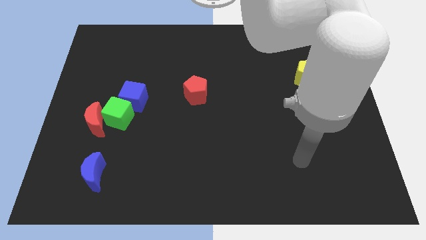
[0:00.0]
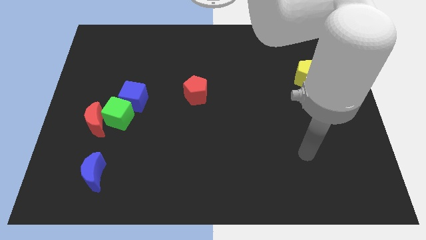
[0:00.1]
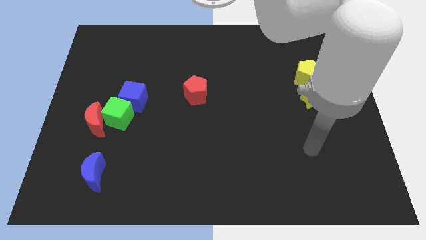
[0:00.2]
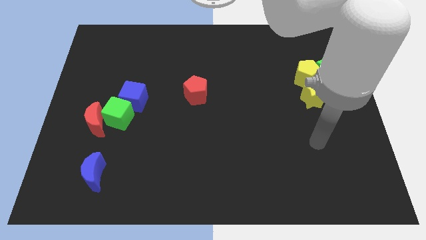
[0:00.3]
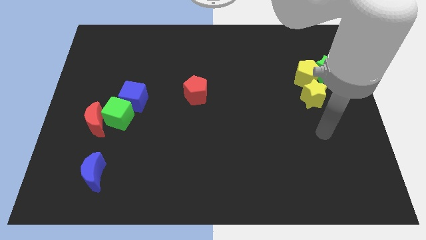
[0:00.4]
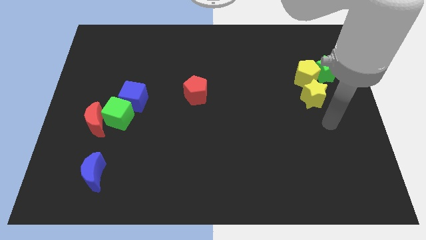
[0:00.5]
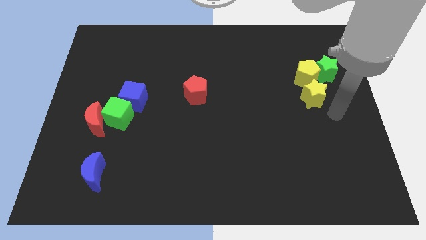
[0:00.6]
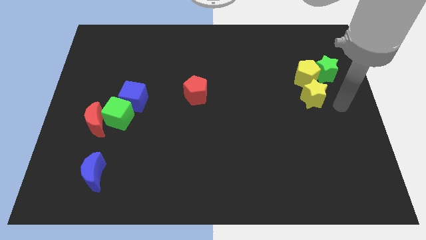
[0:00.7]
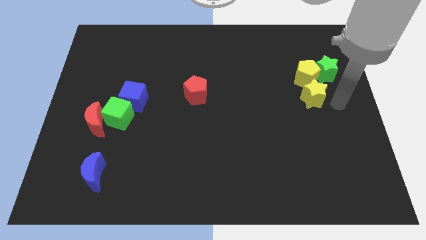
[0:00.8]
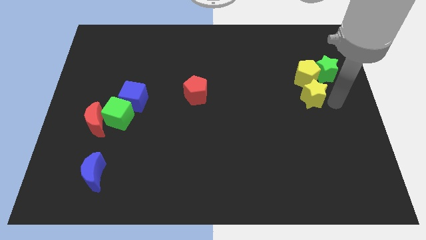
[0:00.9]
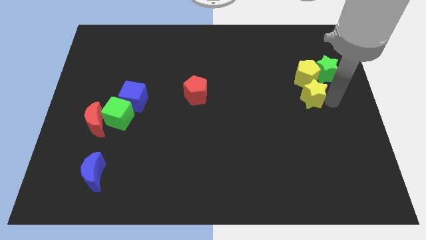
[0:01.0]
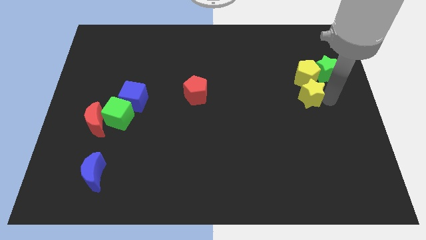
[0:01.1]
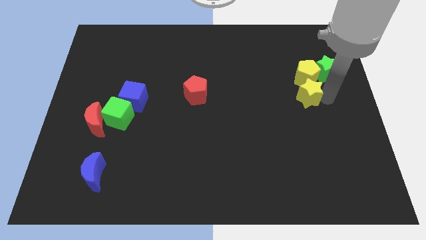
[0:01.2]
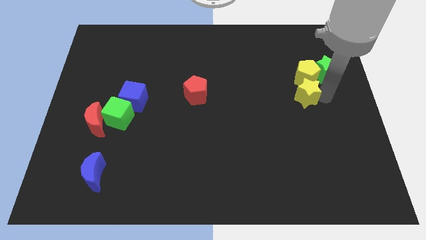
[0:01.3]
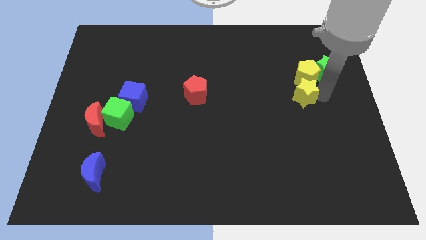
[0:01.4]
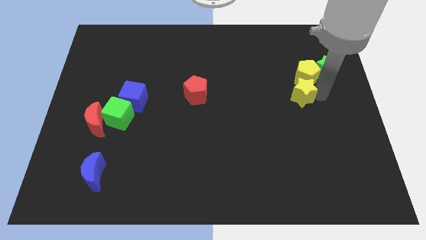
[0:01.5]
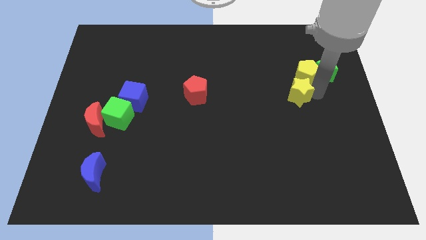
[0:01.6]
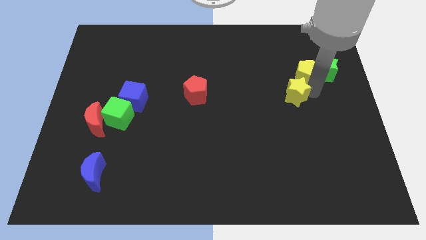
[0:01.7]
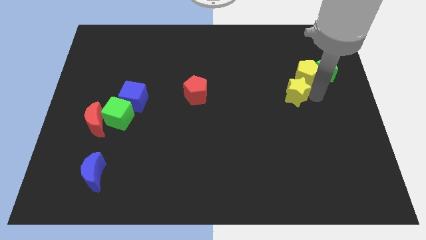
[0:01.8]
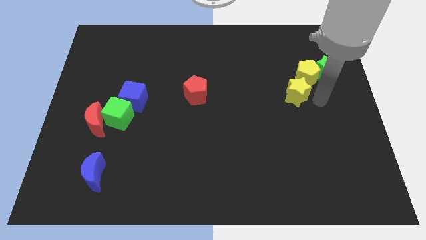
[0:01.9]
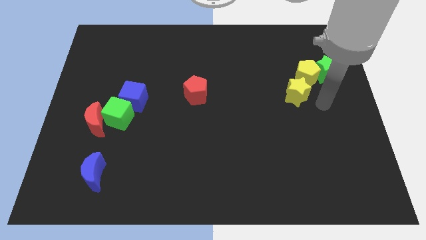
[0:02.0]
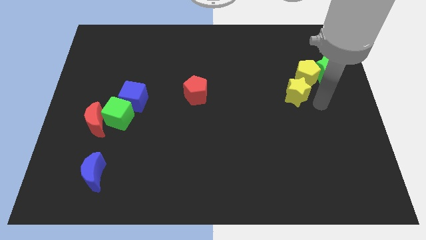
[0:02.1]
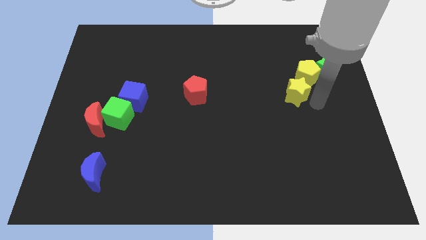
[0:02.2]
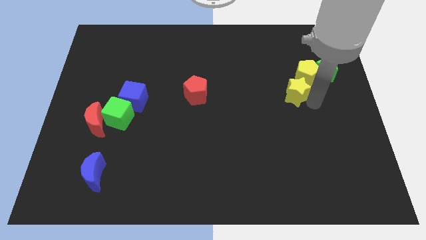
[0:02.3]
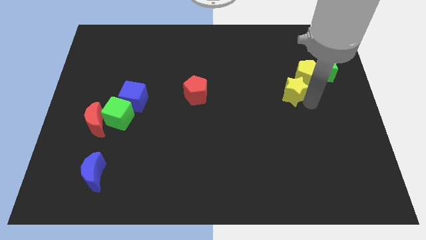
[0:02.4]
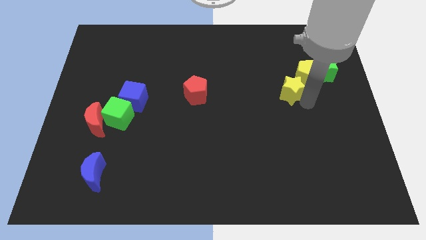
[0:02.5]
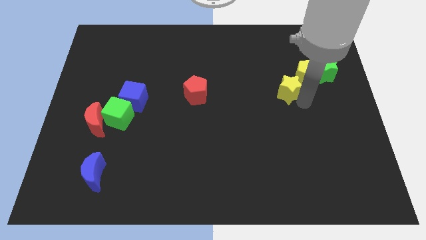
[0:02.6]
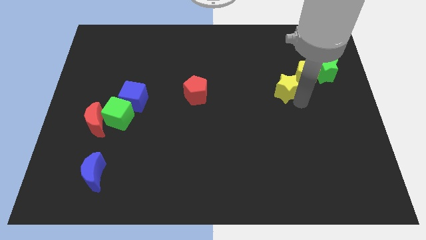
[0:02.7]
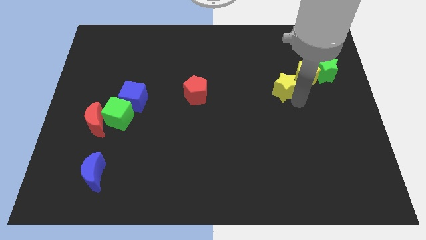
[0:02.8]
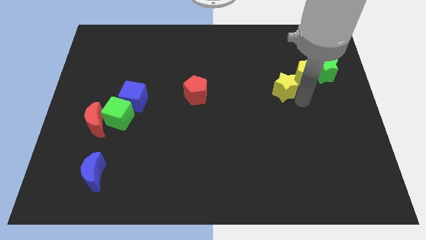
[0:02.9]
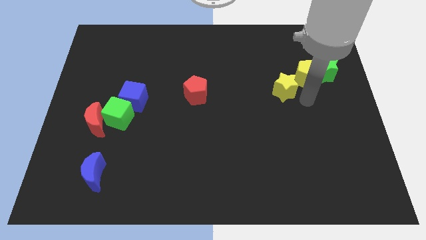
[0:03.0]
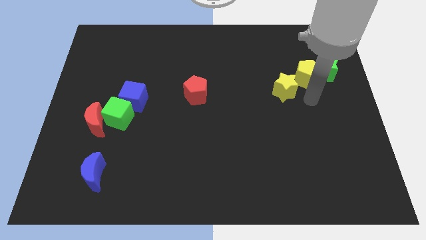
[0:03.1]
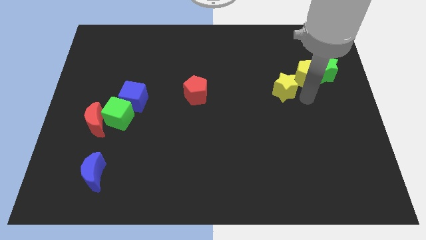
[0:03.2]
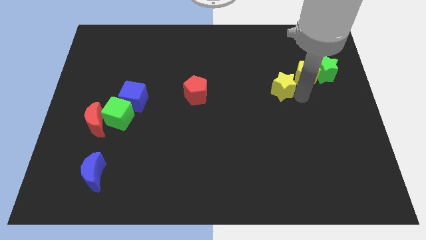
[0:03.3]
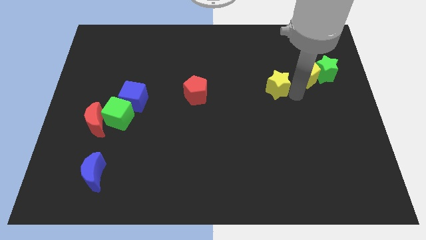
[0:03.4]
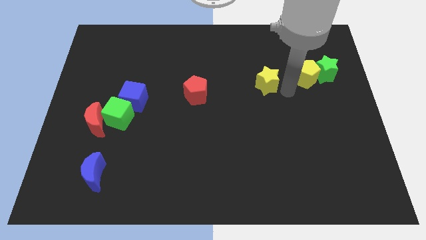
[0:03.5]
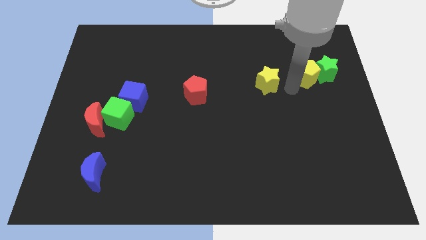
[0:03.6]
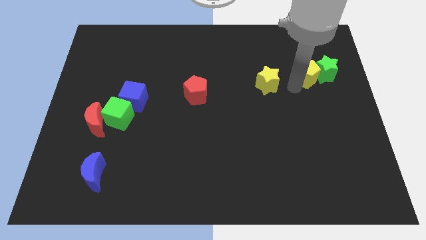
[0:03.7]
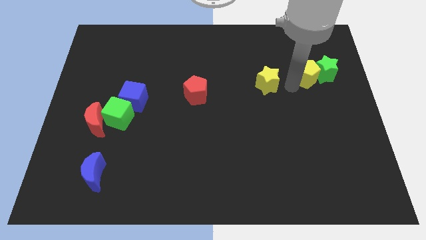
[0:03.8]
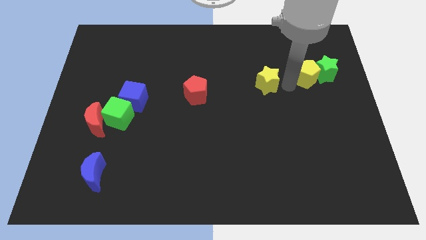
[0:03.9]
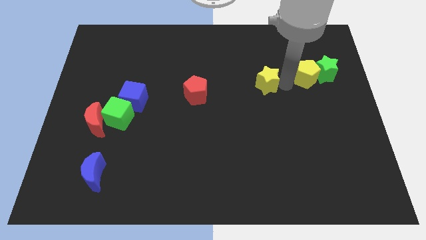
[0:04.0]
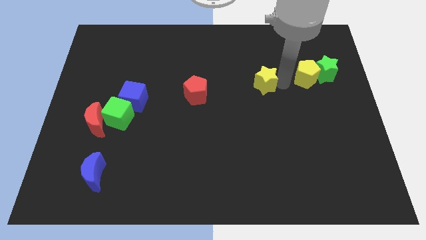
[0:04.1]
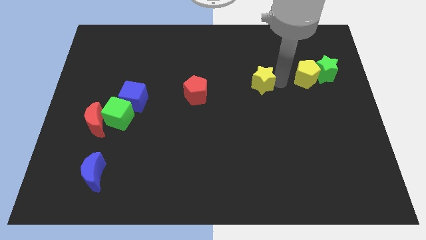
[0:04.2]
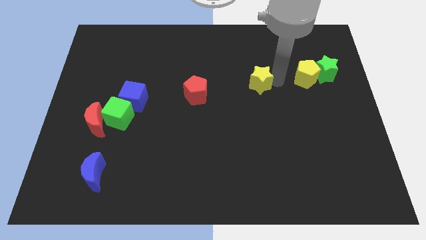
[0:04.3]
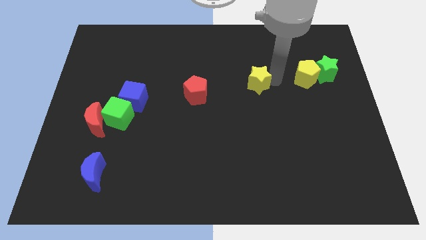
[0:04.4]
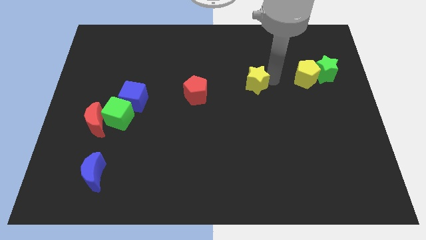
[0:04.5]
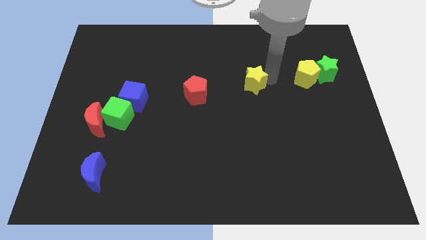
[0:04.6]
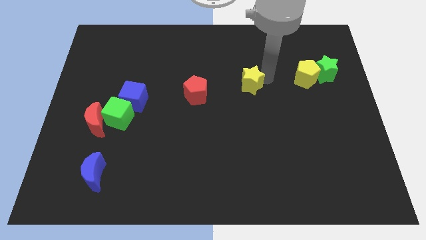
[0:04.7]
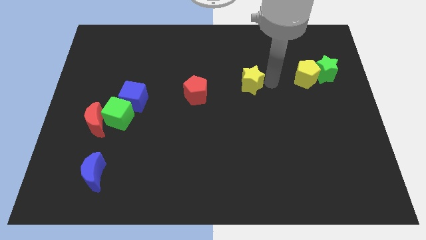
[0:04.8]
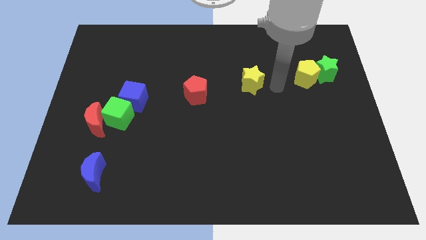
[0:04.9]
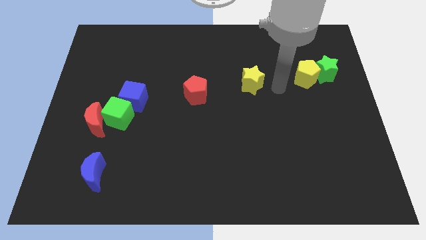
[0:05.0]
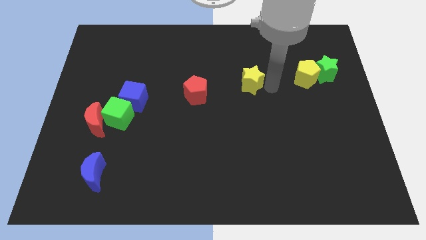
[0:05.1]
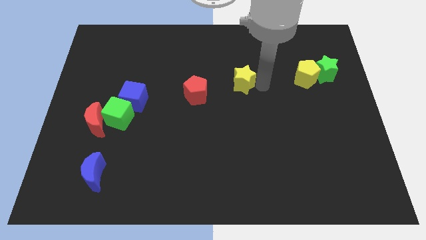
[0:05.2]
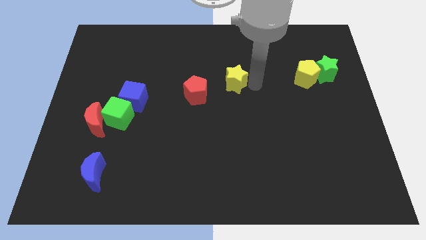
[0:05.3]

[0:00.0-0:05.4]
put the yellow star diagonally up and to the right of the red pentagon

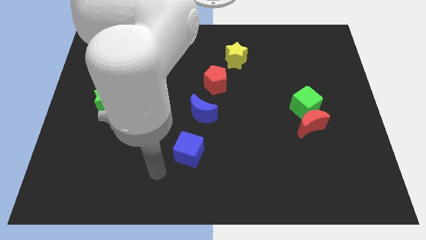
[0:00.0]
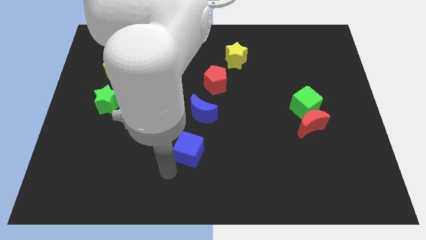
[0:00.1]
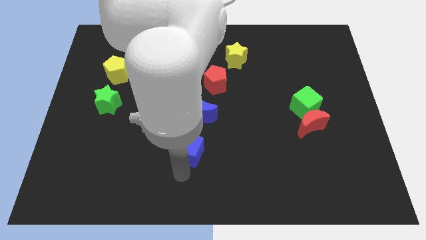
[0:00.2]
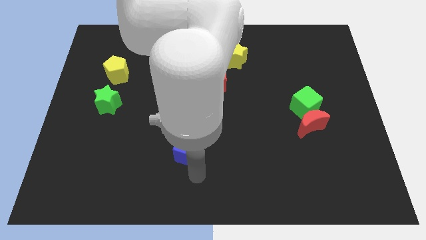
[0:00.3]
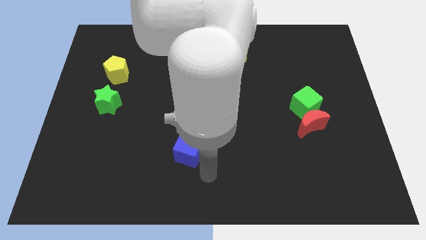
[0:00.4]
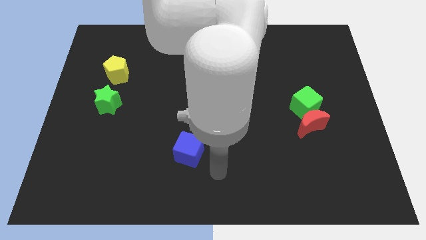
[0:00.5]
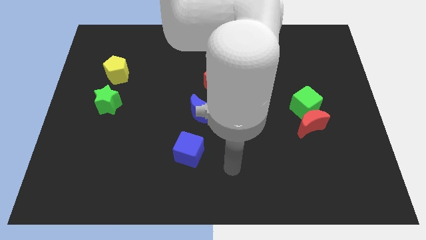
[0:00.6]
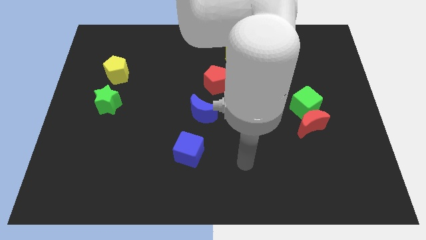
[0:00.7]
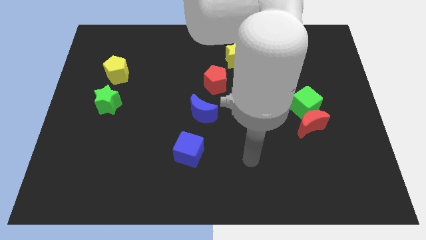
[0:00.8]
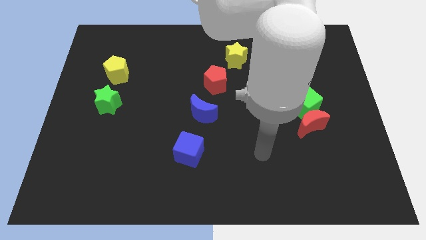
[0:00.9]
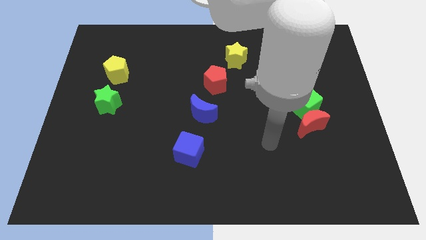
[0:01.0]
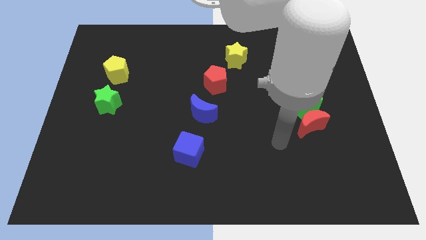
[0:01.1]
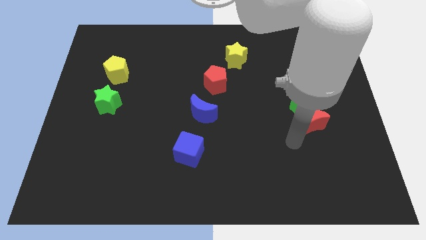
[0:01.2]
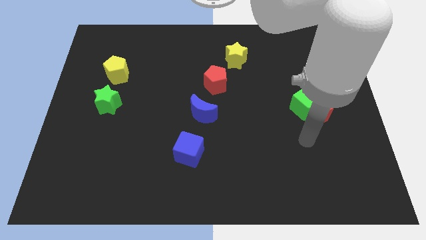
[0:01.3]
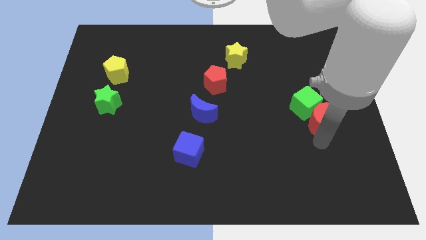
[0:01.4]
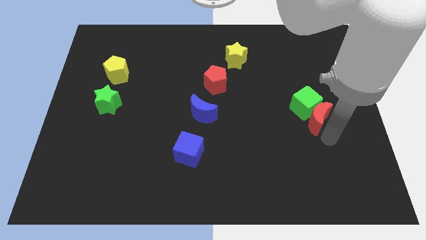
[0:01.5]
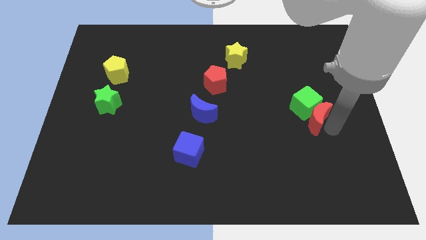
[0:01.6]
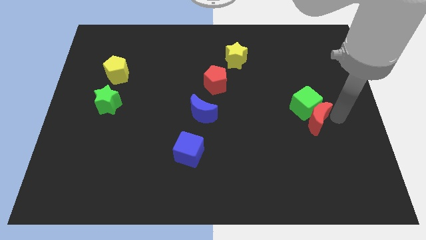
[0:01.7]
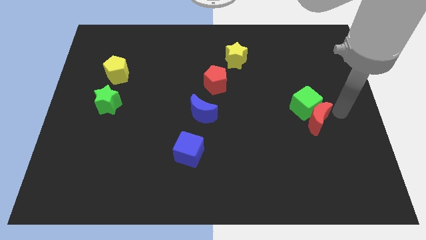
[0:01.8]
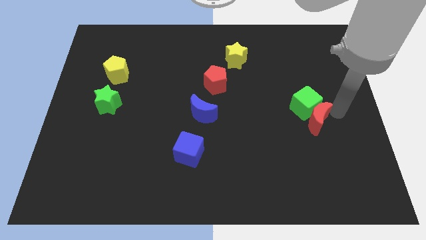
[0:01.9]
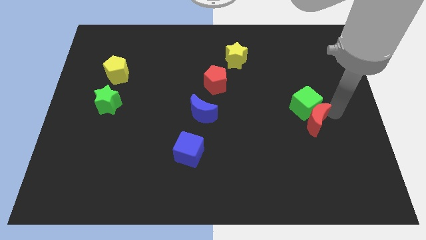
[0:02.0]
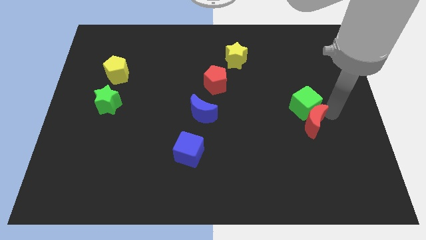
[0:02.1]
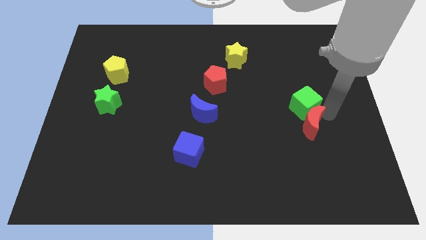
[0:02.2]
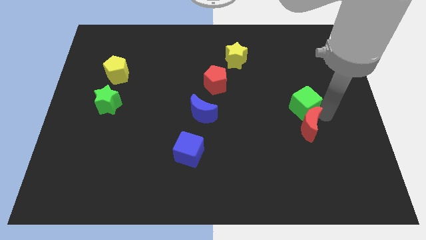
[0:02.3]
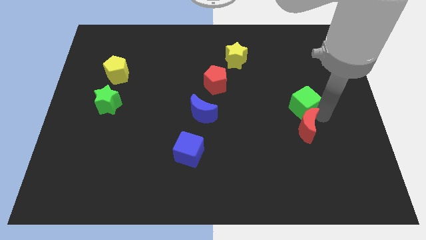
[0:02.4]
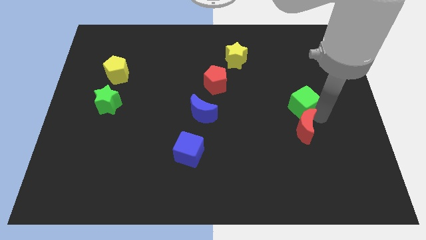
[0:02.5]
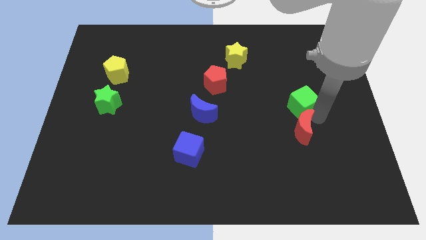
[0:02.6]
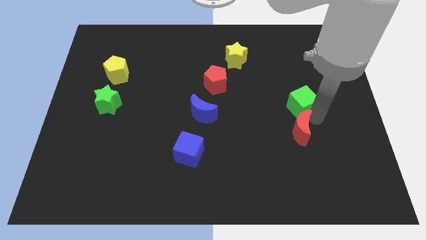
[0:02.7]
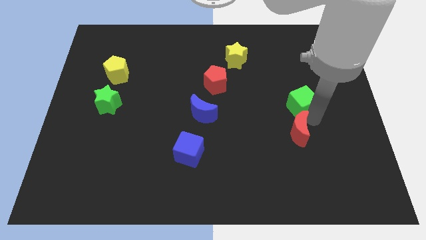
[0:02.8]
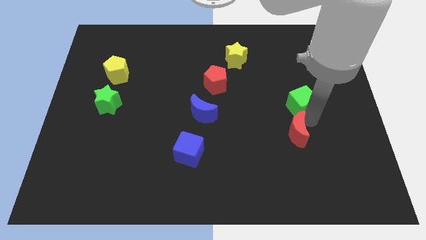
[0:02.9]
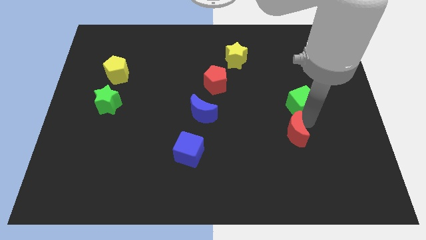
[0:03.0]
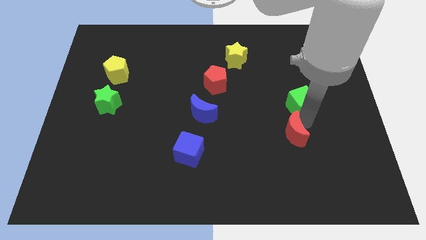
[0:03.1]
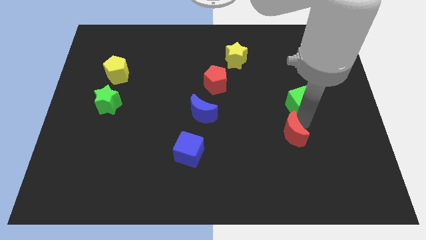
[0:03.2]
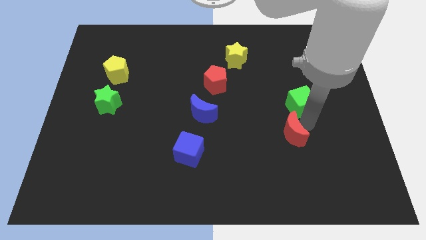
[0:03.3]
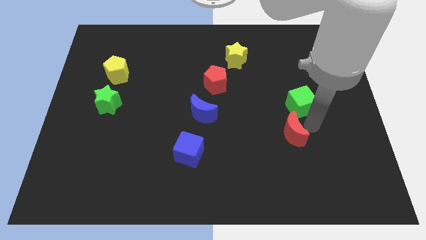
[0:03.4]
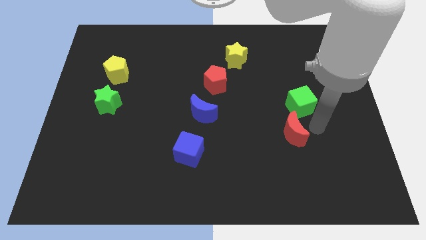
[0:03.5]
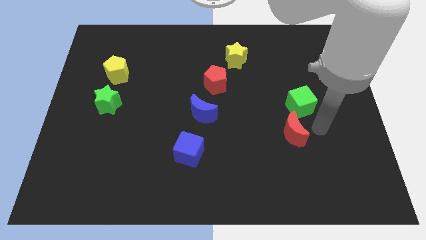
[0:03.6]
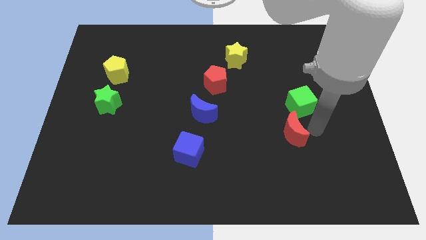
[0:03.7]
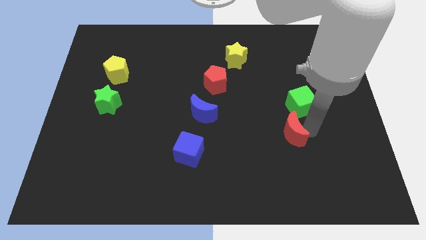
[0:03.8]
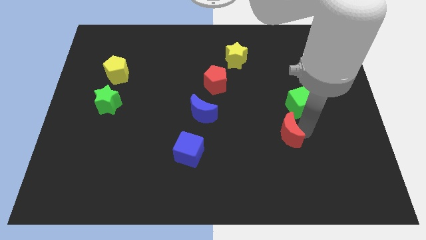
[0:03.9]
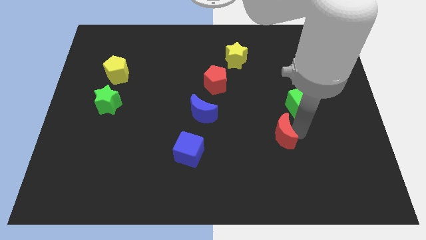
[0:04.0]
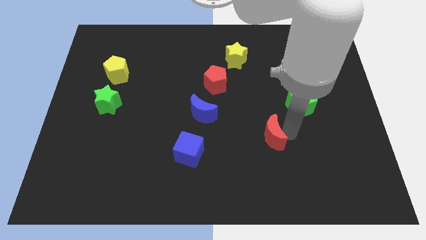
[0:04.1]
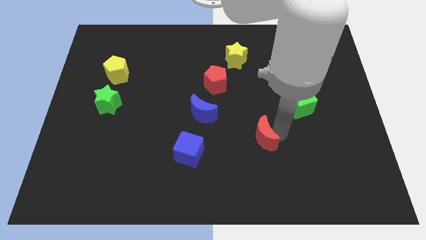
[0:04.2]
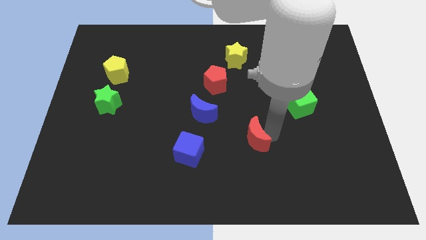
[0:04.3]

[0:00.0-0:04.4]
slide the red moon to the right of the blue cube
